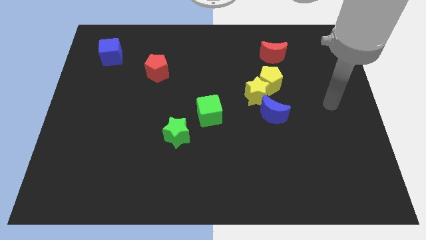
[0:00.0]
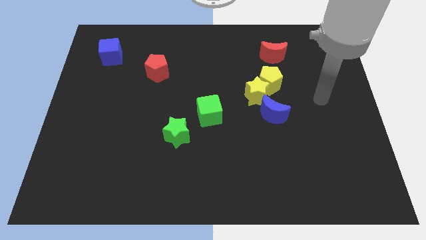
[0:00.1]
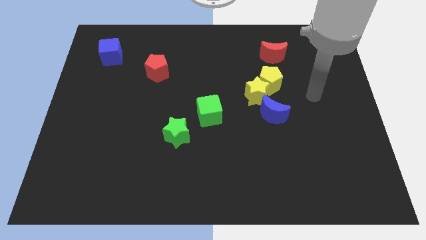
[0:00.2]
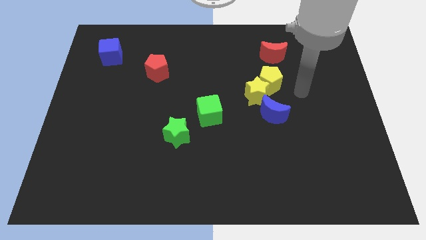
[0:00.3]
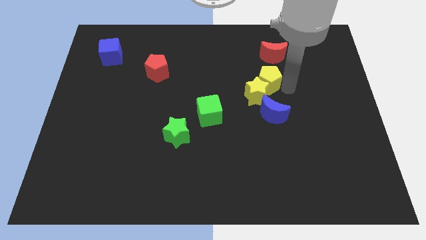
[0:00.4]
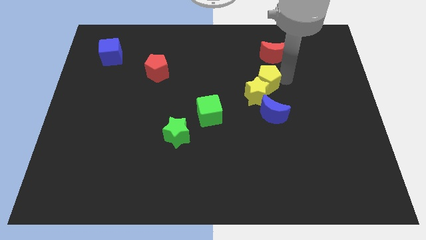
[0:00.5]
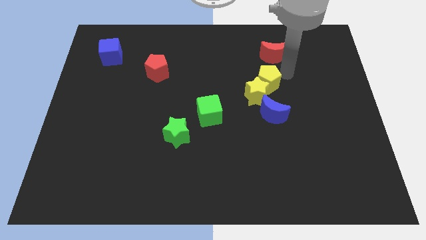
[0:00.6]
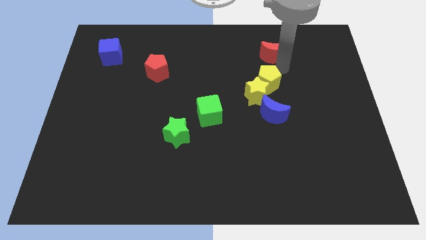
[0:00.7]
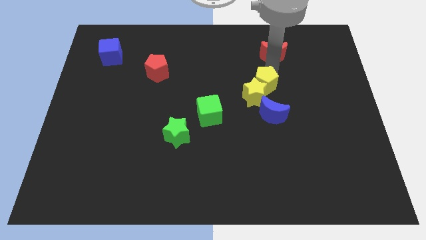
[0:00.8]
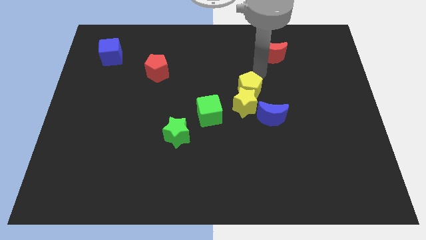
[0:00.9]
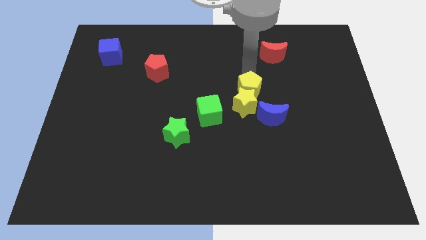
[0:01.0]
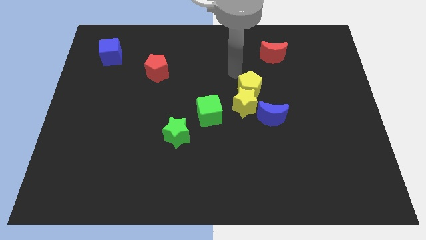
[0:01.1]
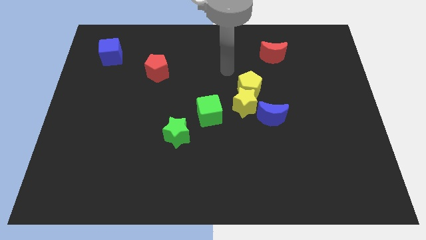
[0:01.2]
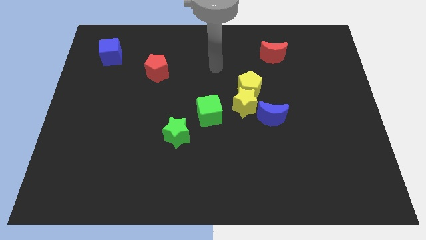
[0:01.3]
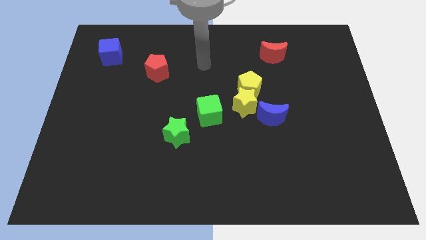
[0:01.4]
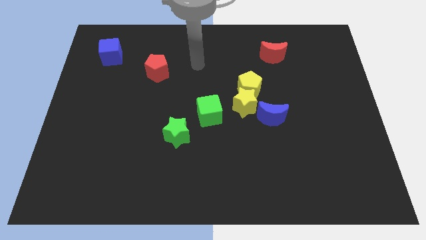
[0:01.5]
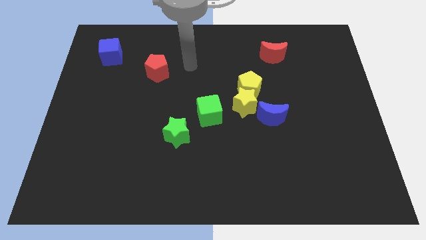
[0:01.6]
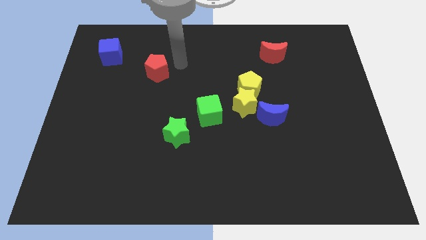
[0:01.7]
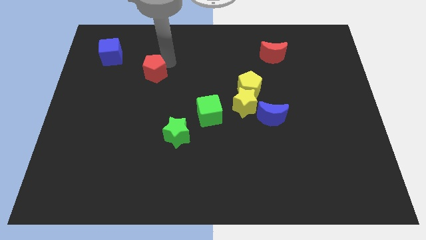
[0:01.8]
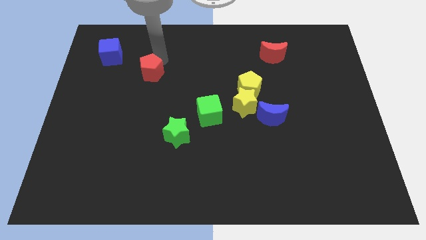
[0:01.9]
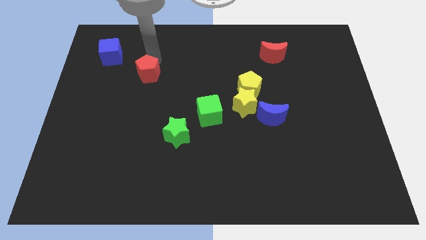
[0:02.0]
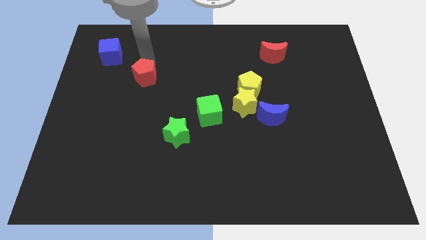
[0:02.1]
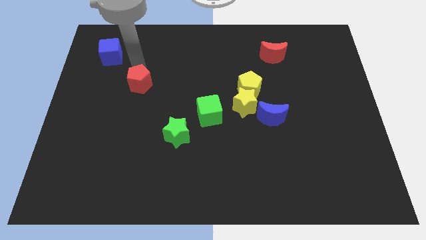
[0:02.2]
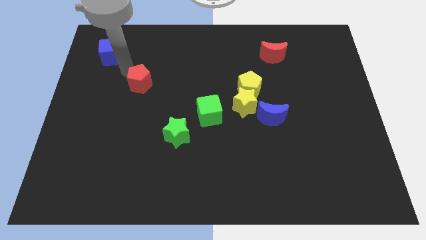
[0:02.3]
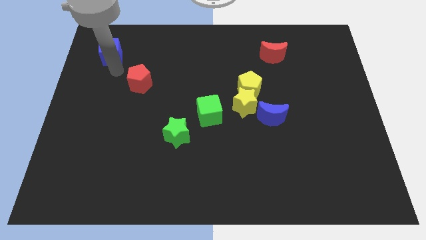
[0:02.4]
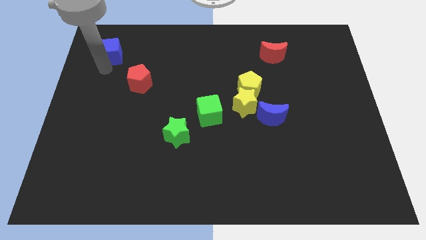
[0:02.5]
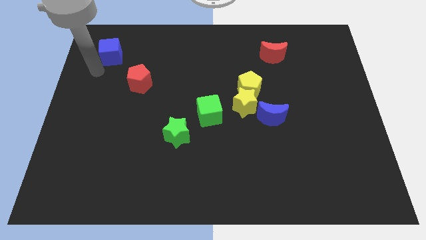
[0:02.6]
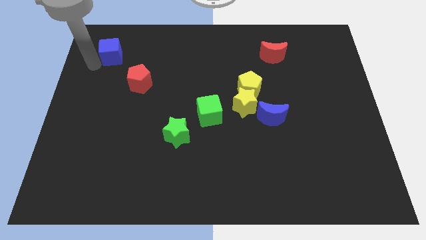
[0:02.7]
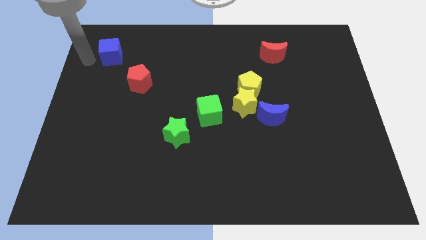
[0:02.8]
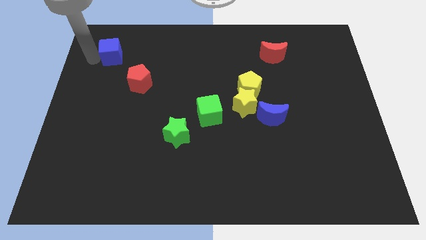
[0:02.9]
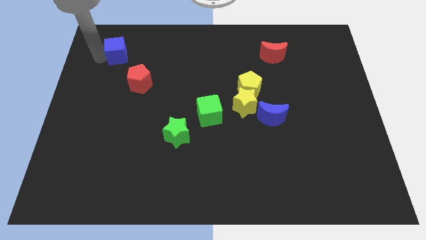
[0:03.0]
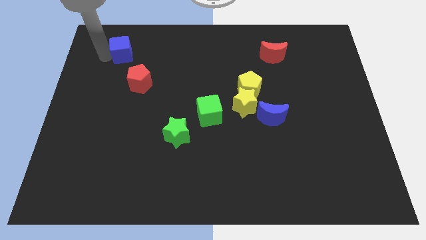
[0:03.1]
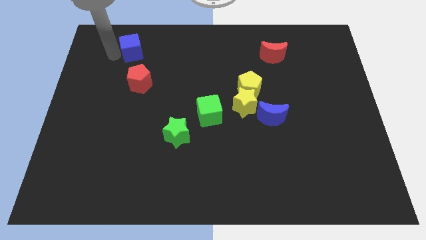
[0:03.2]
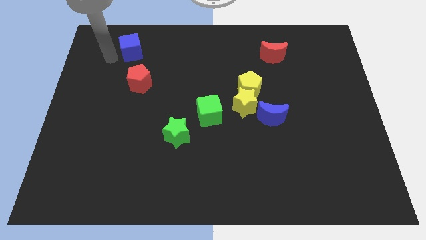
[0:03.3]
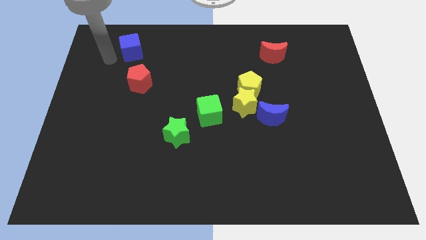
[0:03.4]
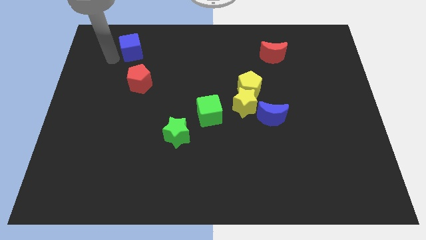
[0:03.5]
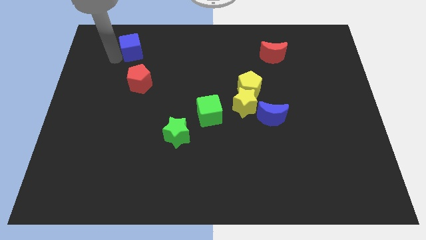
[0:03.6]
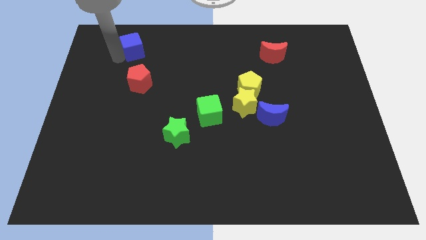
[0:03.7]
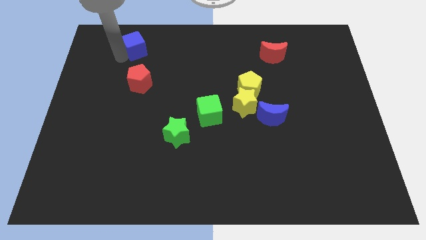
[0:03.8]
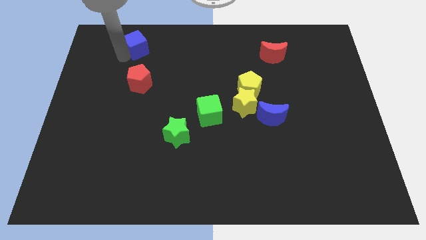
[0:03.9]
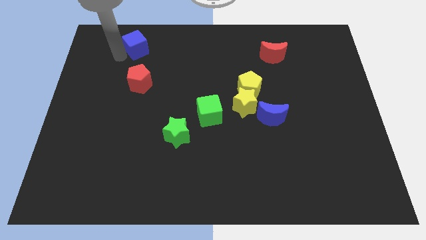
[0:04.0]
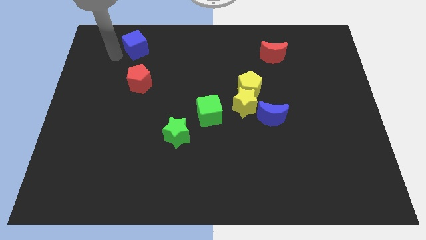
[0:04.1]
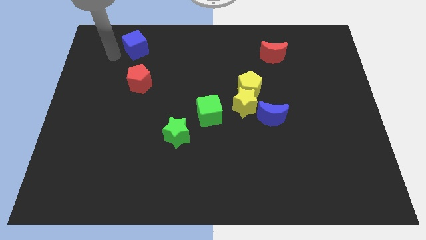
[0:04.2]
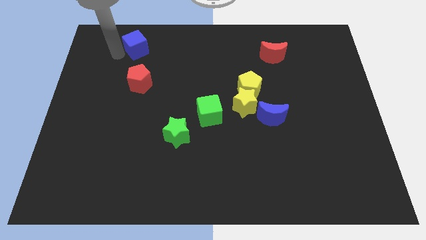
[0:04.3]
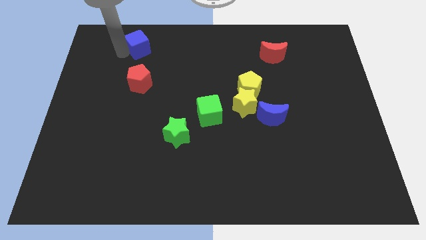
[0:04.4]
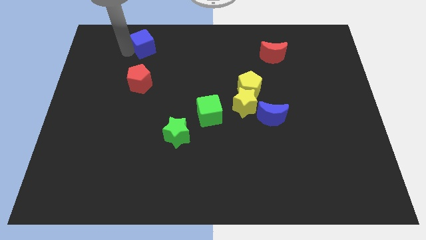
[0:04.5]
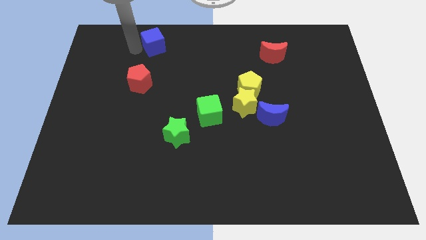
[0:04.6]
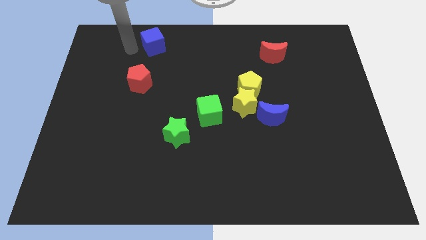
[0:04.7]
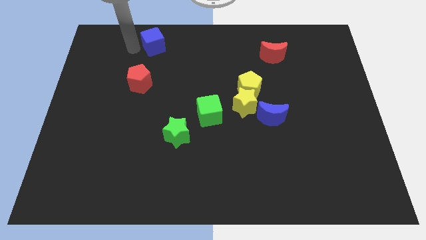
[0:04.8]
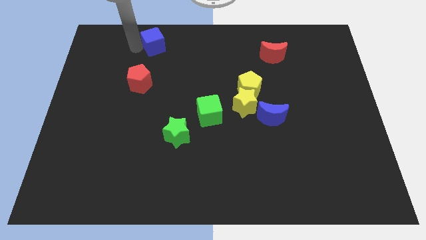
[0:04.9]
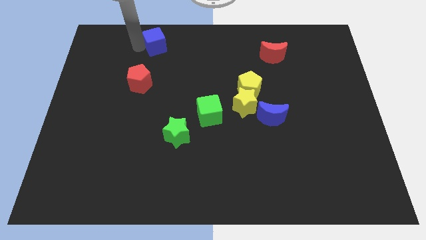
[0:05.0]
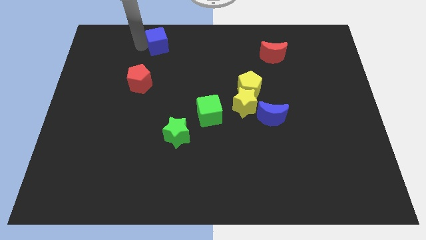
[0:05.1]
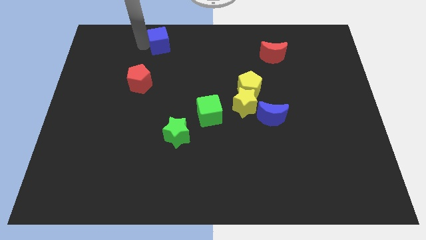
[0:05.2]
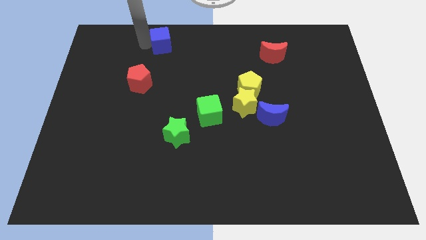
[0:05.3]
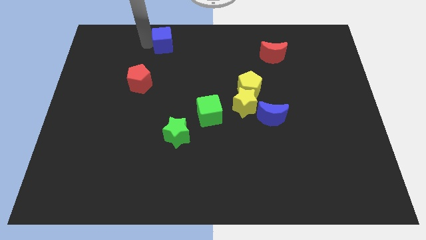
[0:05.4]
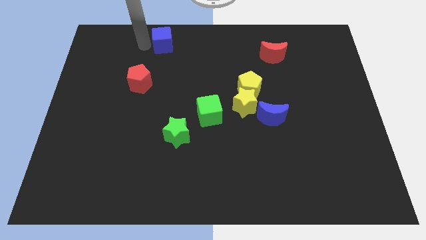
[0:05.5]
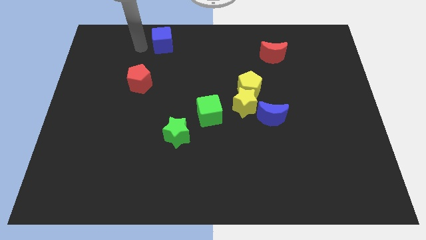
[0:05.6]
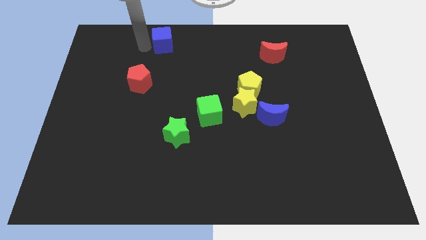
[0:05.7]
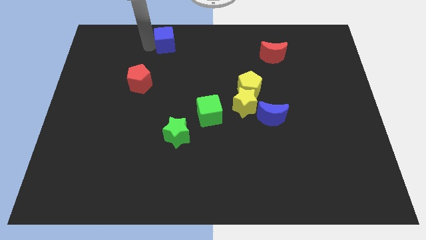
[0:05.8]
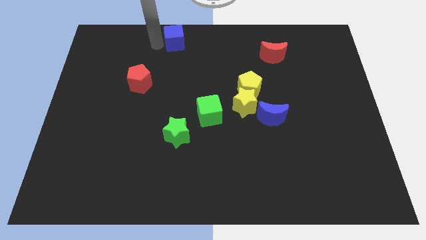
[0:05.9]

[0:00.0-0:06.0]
push the blue cube to the top side
